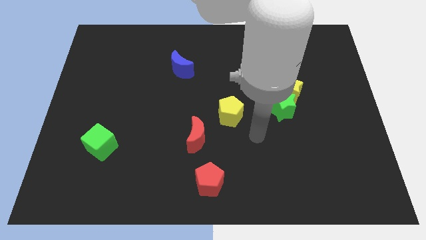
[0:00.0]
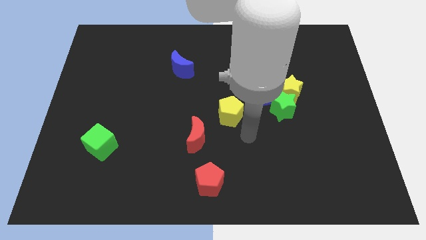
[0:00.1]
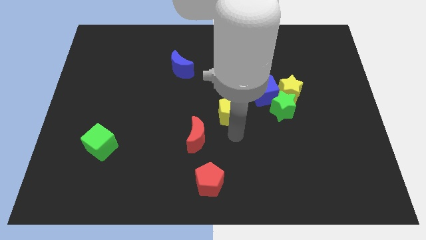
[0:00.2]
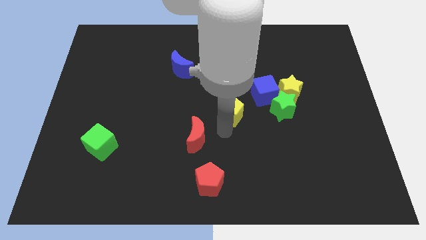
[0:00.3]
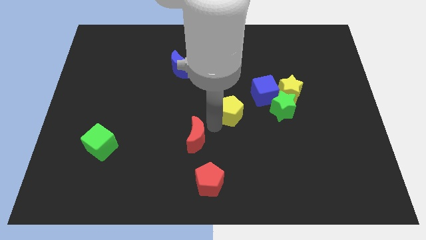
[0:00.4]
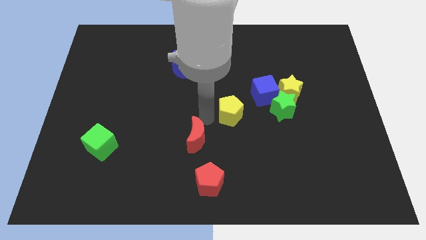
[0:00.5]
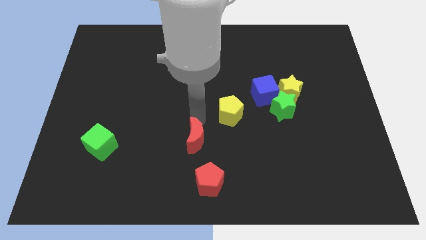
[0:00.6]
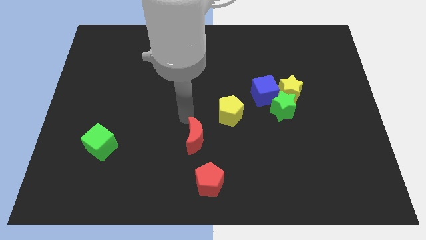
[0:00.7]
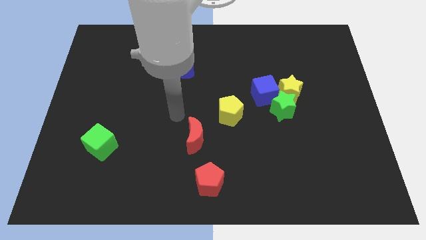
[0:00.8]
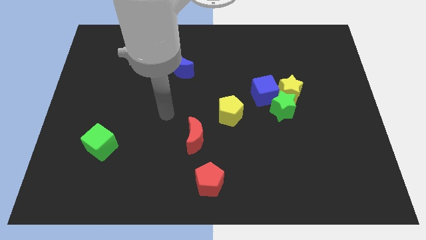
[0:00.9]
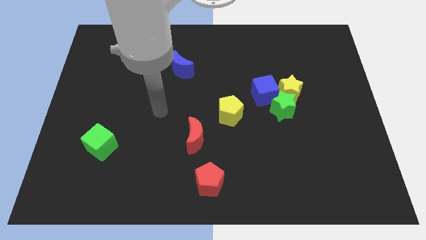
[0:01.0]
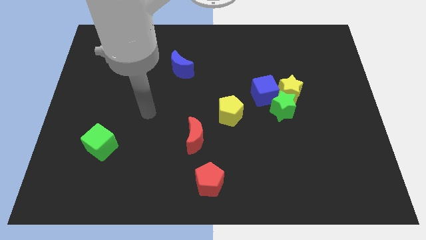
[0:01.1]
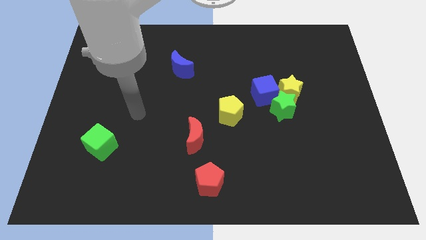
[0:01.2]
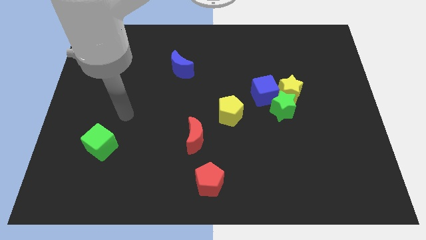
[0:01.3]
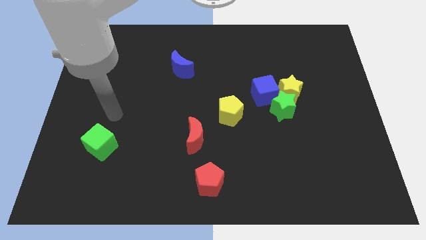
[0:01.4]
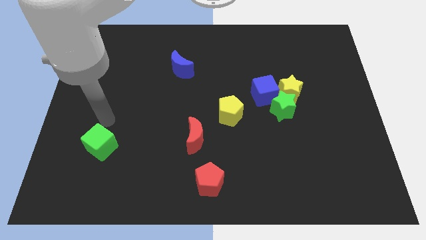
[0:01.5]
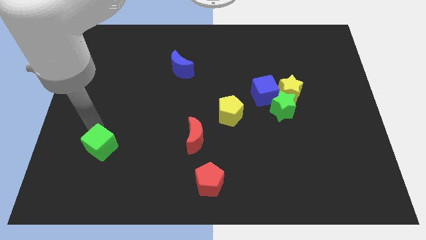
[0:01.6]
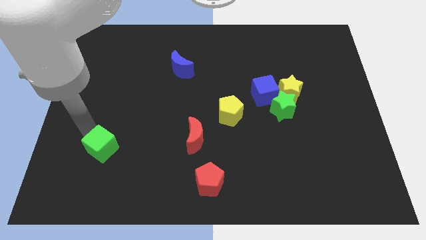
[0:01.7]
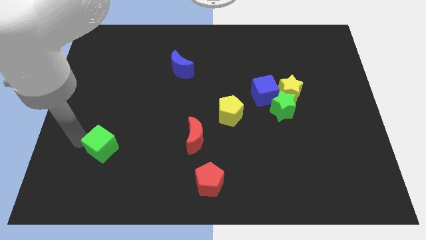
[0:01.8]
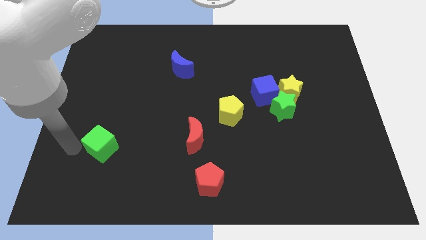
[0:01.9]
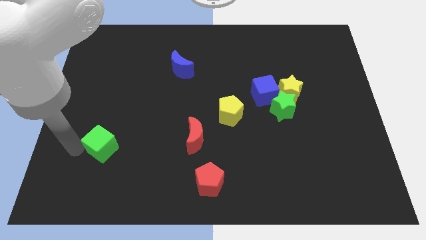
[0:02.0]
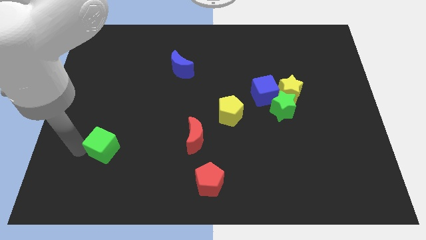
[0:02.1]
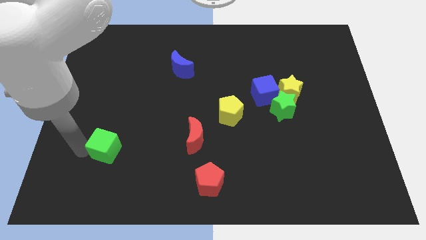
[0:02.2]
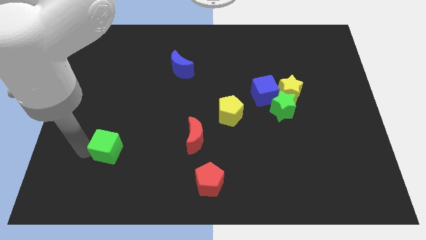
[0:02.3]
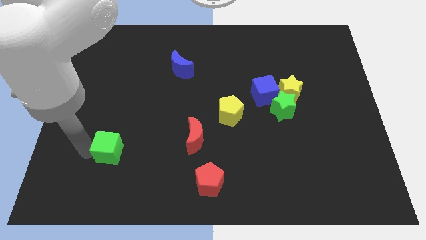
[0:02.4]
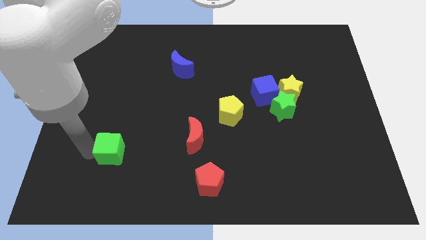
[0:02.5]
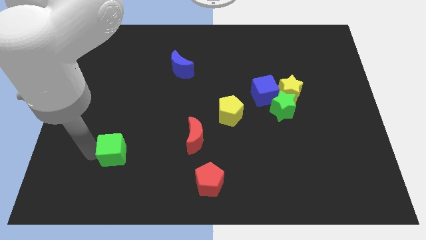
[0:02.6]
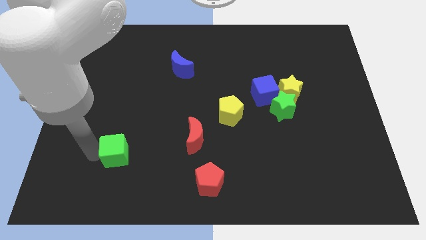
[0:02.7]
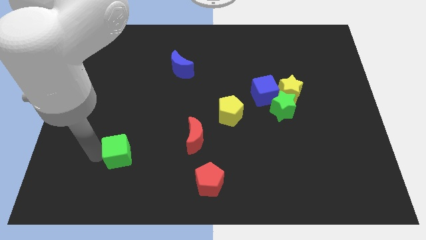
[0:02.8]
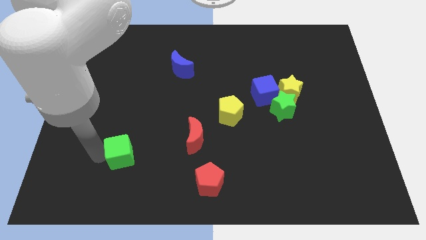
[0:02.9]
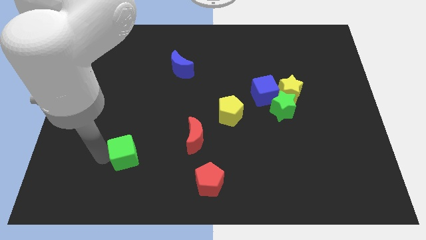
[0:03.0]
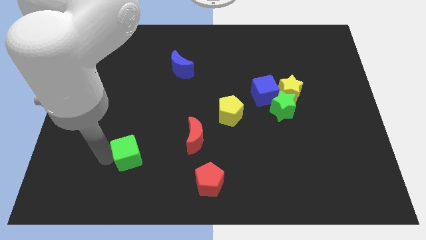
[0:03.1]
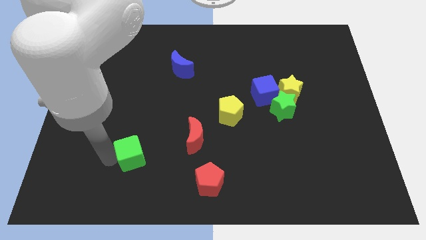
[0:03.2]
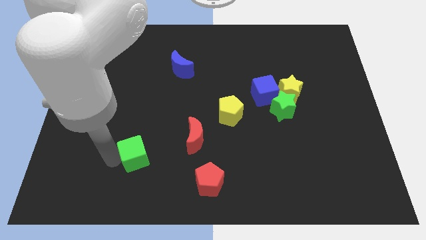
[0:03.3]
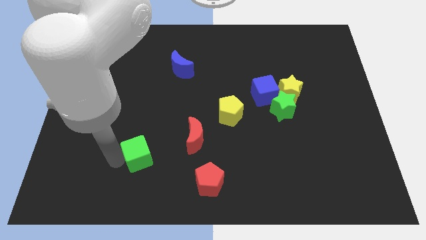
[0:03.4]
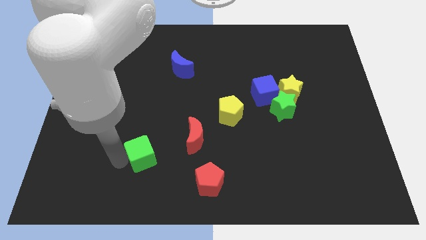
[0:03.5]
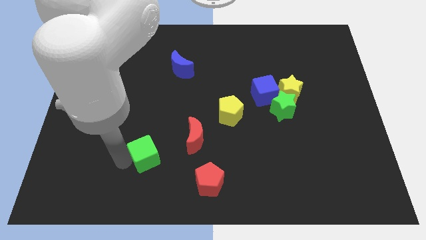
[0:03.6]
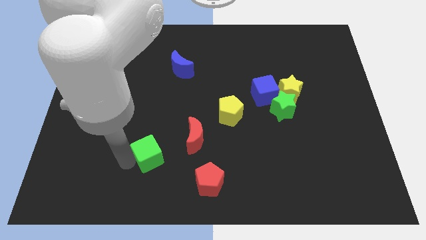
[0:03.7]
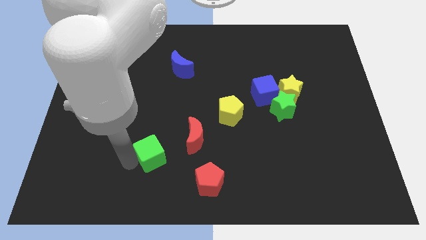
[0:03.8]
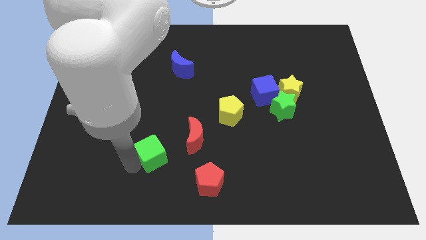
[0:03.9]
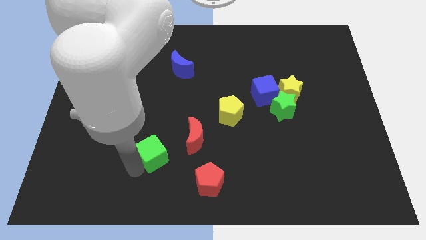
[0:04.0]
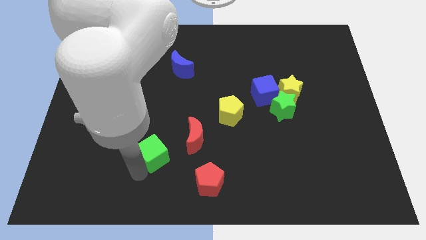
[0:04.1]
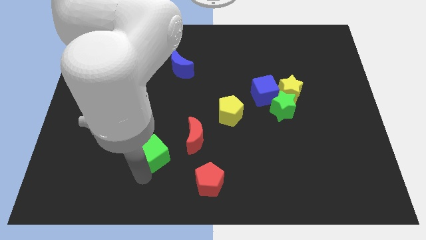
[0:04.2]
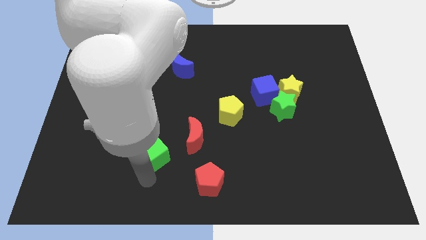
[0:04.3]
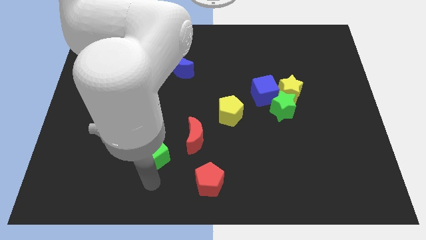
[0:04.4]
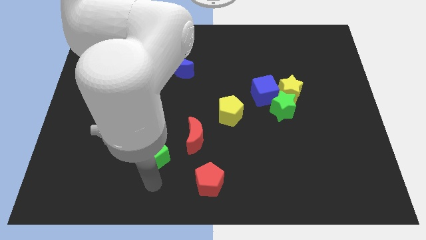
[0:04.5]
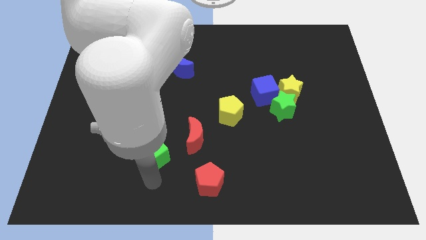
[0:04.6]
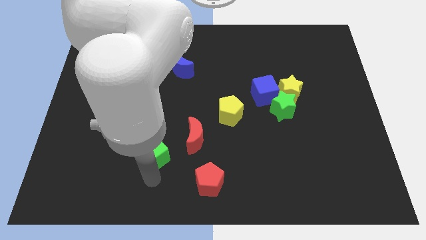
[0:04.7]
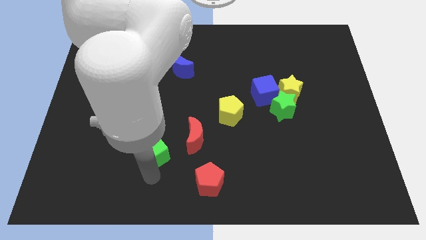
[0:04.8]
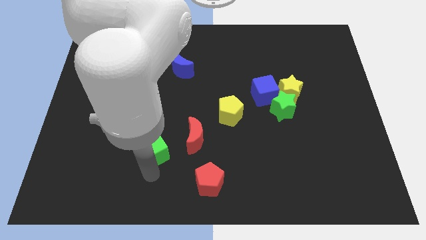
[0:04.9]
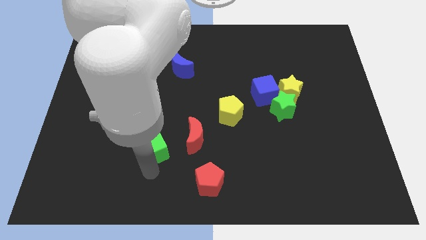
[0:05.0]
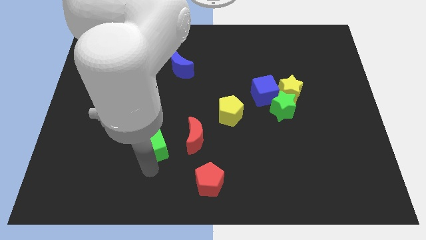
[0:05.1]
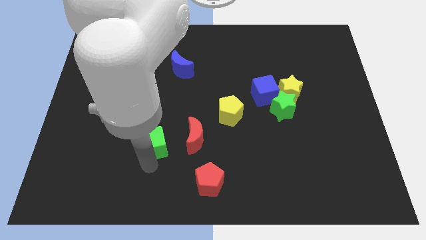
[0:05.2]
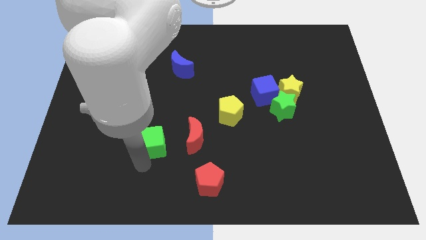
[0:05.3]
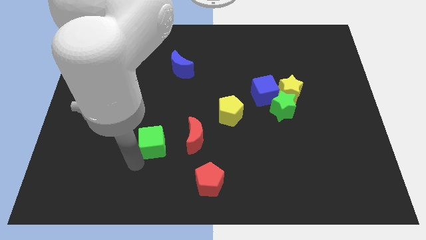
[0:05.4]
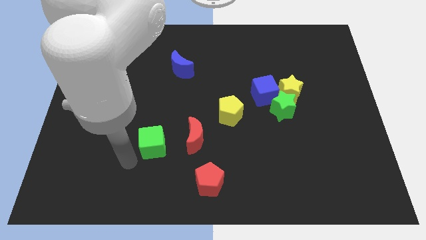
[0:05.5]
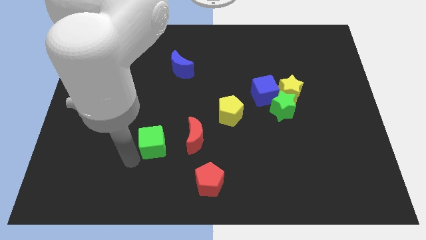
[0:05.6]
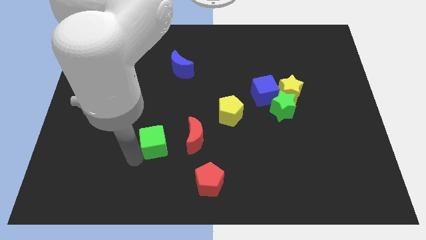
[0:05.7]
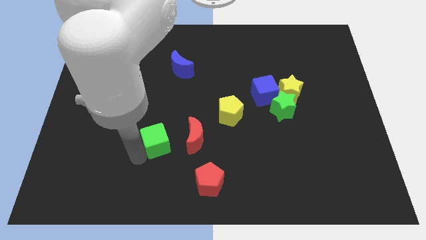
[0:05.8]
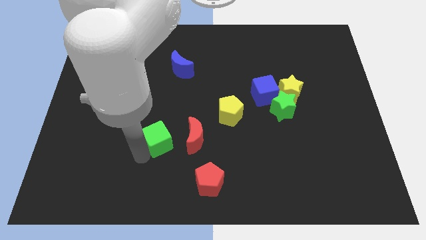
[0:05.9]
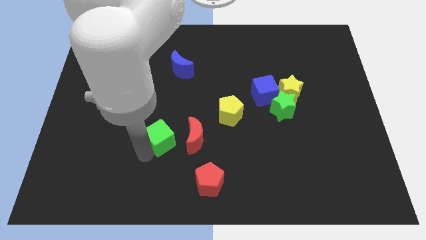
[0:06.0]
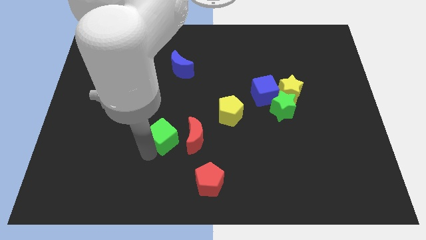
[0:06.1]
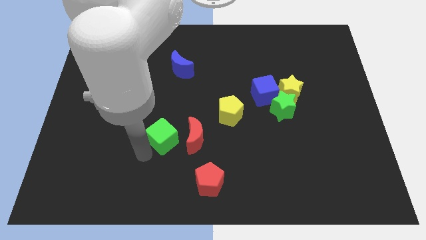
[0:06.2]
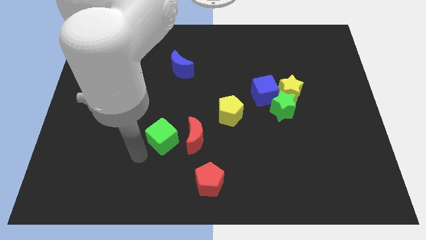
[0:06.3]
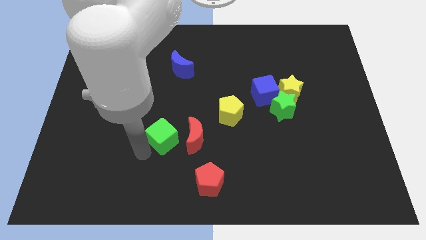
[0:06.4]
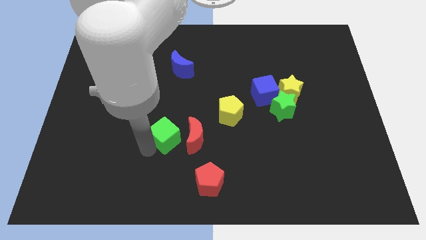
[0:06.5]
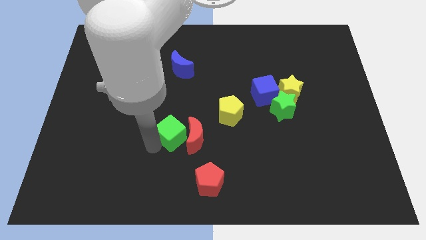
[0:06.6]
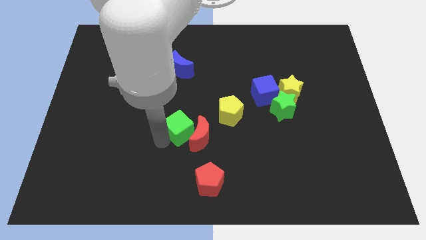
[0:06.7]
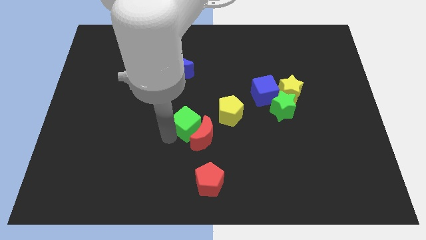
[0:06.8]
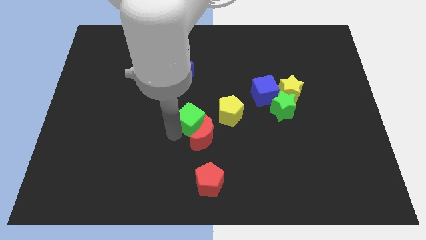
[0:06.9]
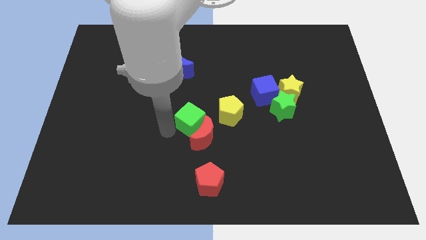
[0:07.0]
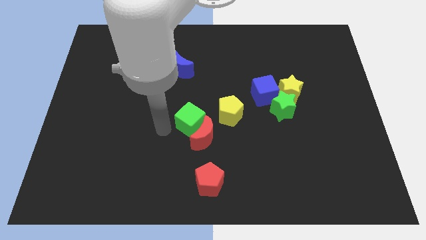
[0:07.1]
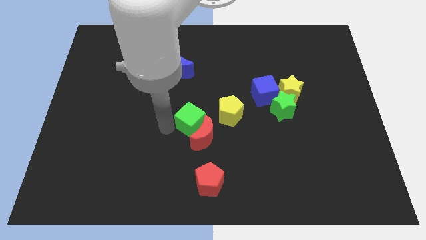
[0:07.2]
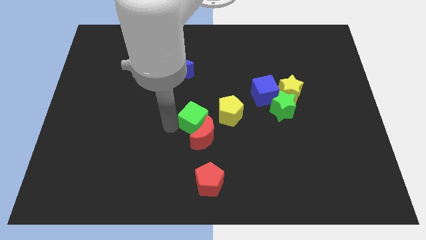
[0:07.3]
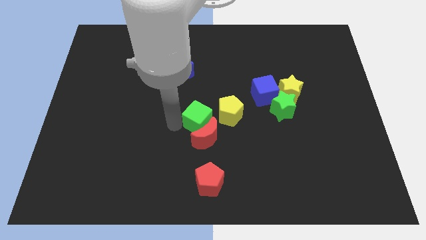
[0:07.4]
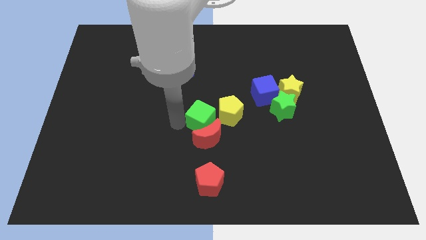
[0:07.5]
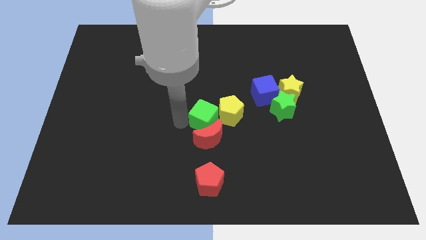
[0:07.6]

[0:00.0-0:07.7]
move the green cube close to the yellow pentagon
